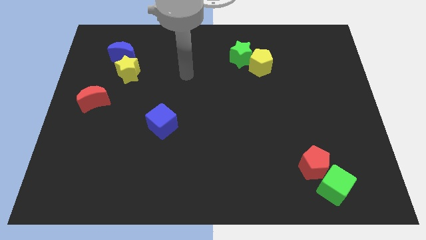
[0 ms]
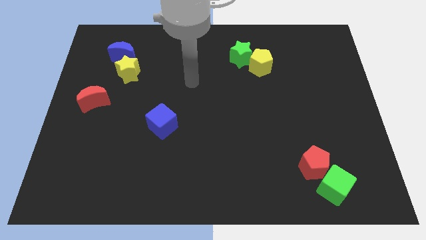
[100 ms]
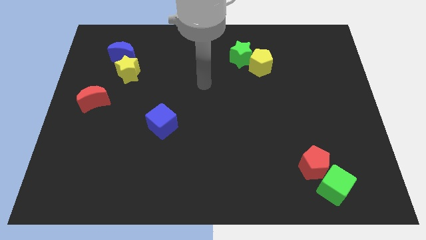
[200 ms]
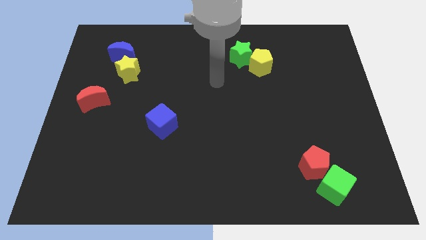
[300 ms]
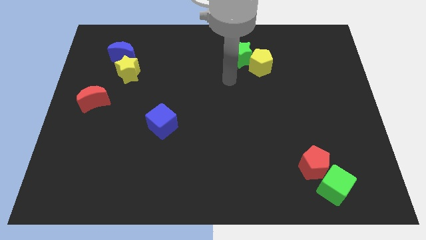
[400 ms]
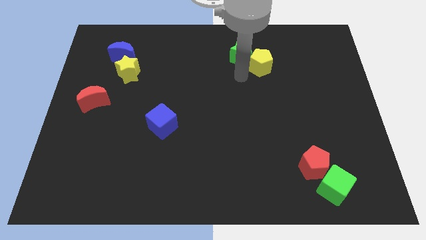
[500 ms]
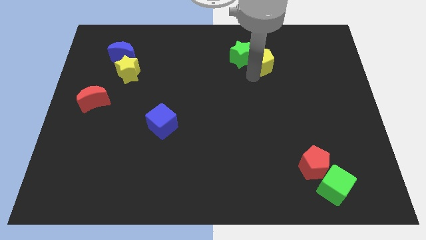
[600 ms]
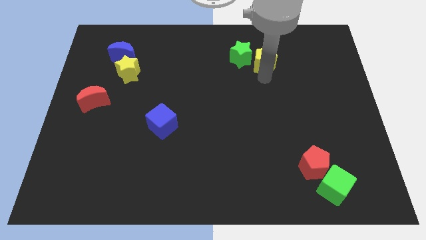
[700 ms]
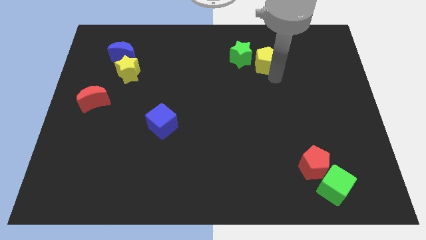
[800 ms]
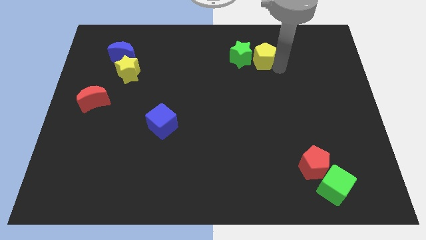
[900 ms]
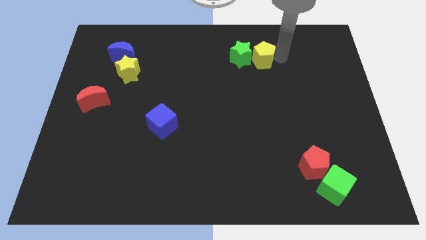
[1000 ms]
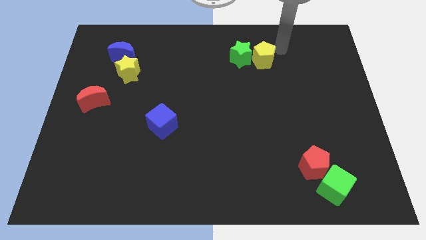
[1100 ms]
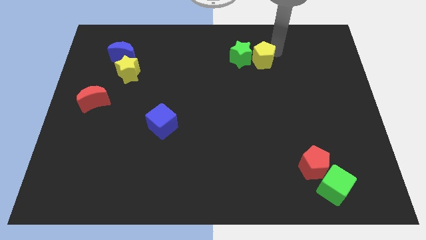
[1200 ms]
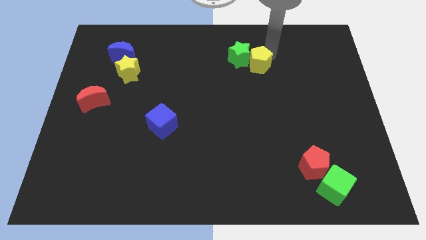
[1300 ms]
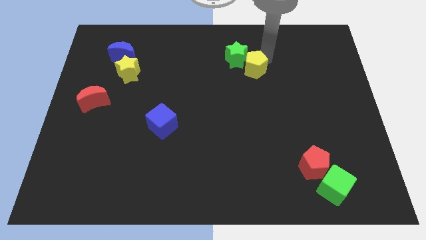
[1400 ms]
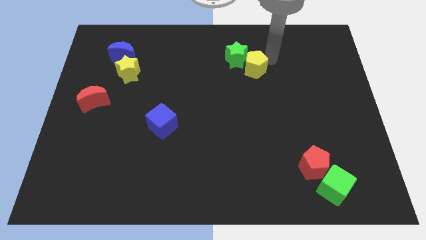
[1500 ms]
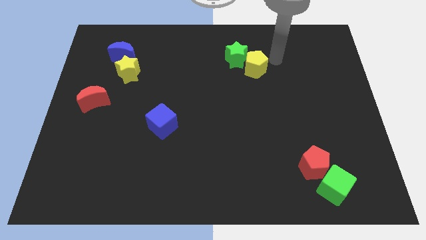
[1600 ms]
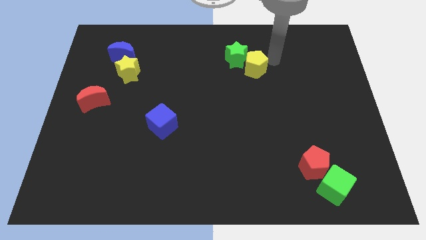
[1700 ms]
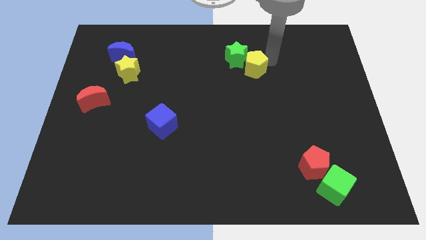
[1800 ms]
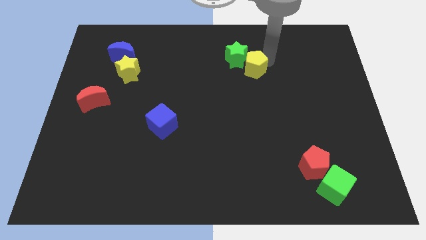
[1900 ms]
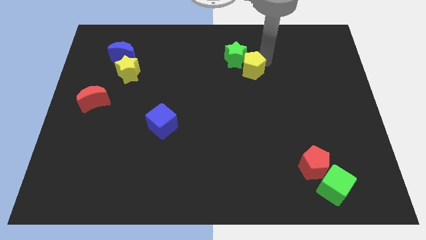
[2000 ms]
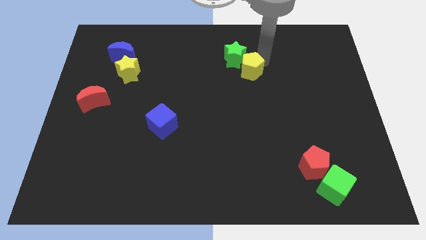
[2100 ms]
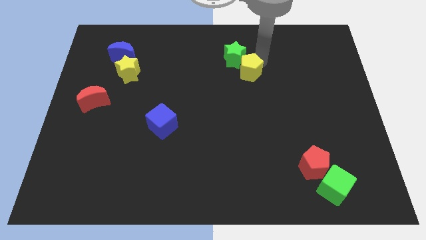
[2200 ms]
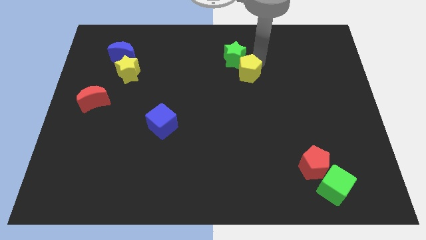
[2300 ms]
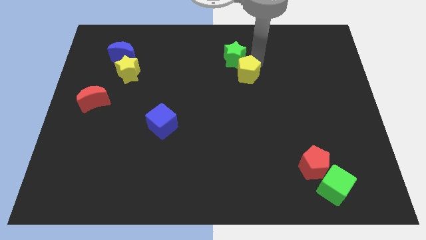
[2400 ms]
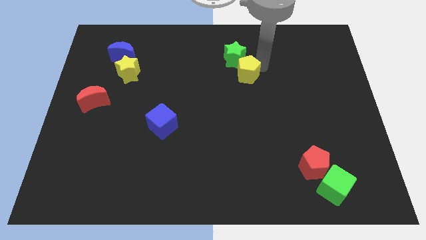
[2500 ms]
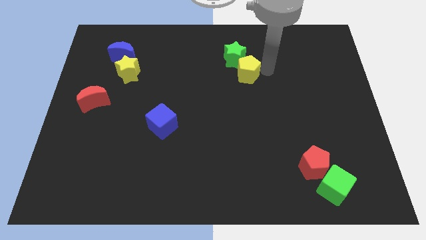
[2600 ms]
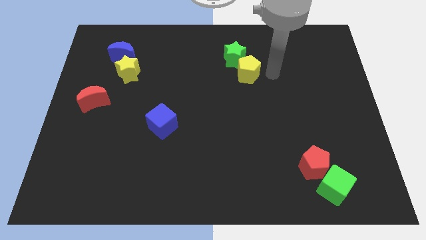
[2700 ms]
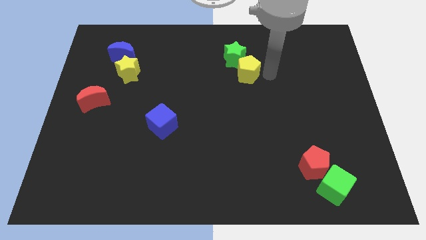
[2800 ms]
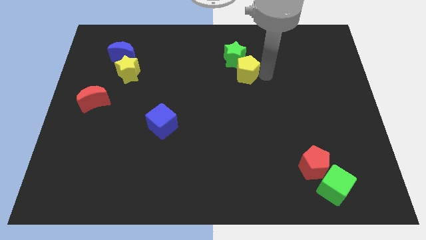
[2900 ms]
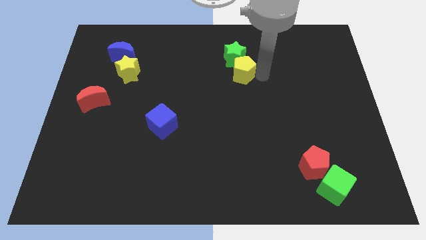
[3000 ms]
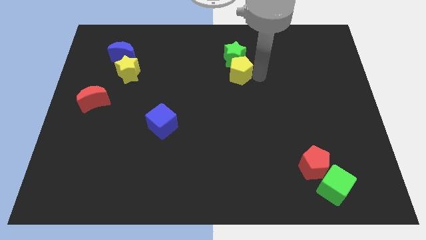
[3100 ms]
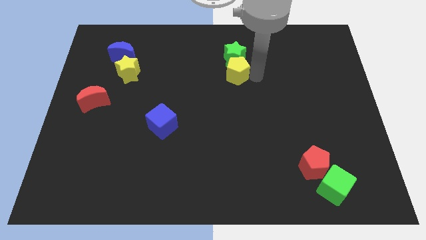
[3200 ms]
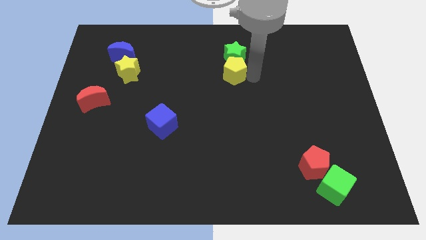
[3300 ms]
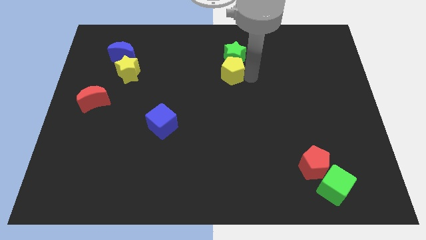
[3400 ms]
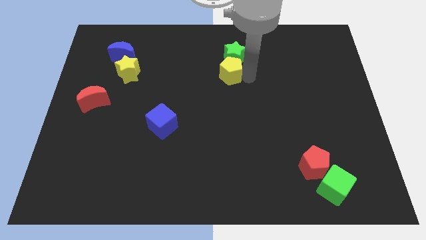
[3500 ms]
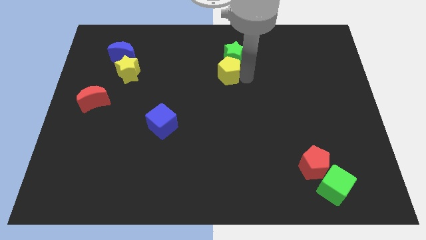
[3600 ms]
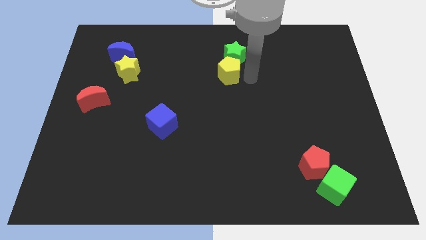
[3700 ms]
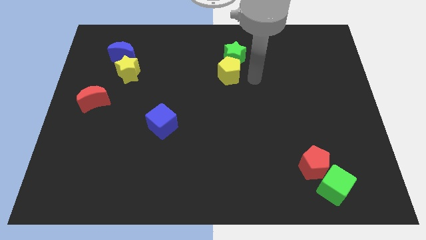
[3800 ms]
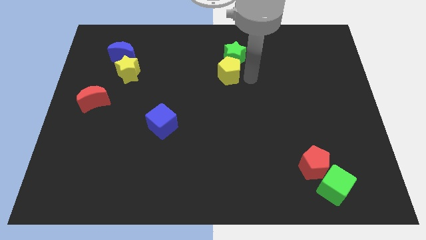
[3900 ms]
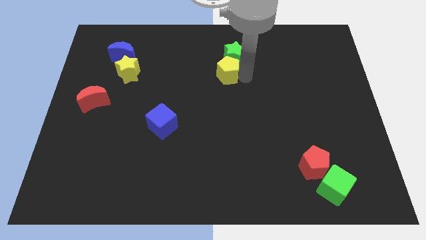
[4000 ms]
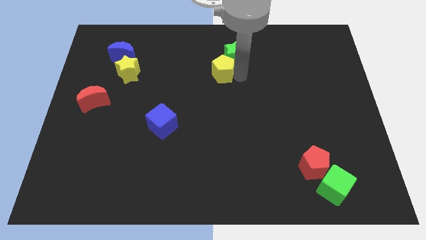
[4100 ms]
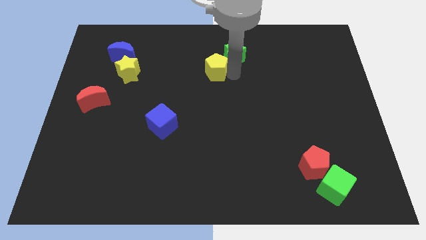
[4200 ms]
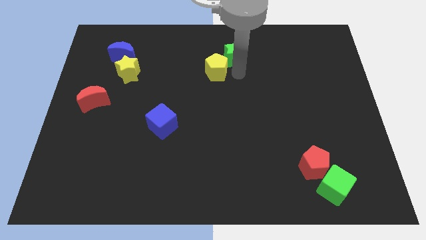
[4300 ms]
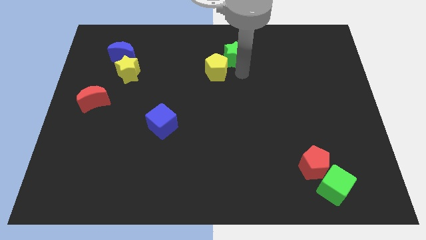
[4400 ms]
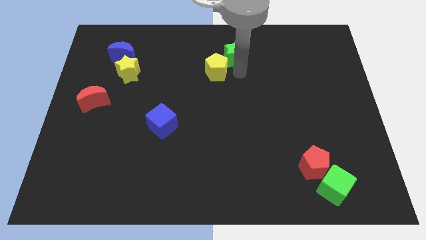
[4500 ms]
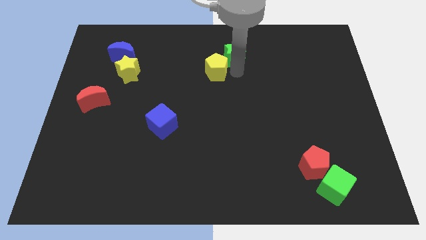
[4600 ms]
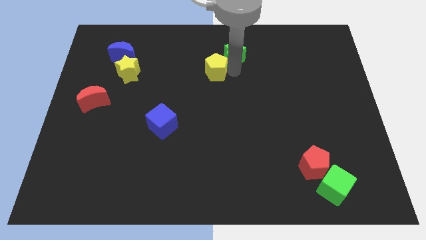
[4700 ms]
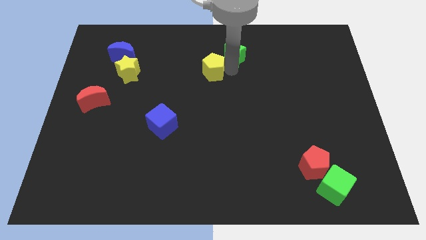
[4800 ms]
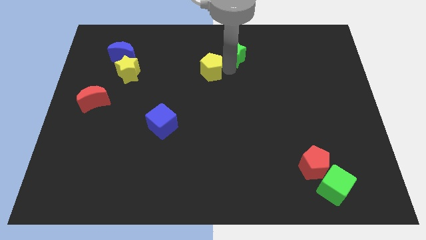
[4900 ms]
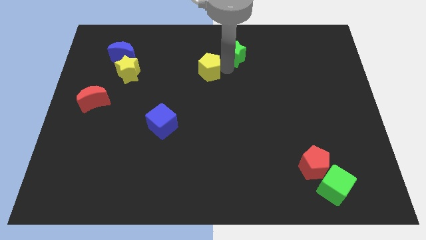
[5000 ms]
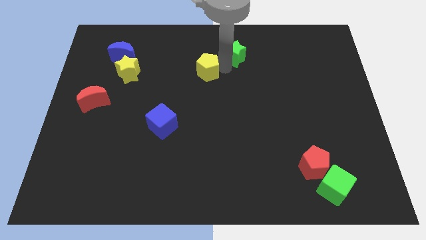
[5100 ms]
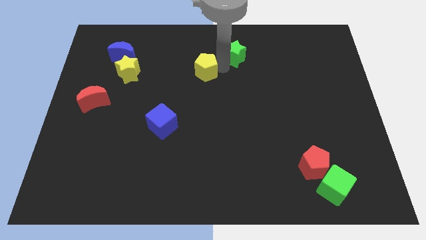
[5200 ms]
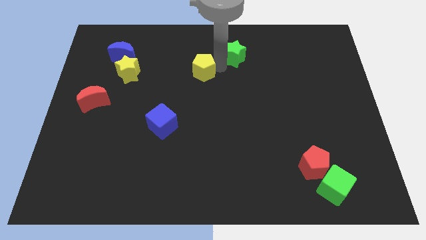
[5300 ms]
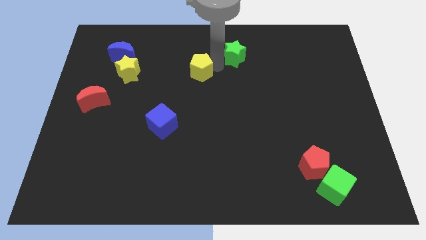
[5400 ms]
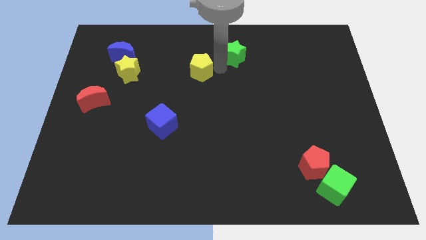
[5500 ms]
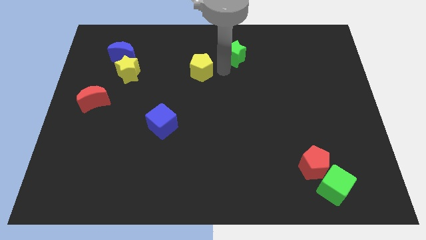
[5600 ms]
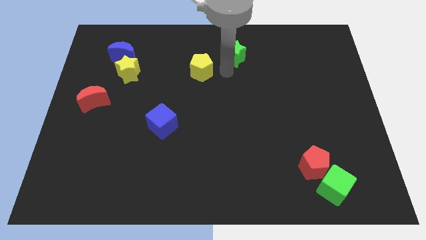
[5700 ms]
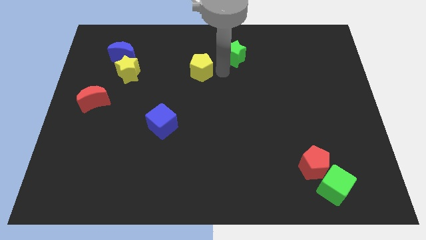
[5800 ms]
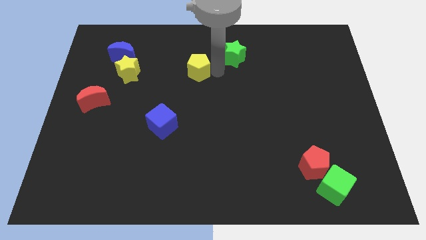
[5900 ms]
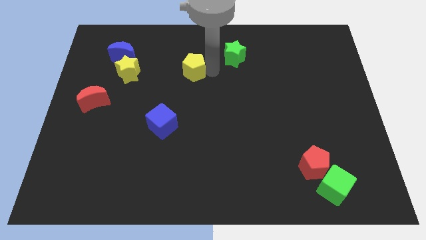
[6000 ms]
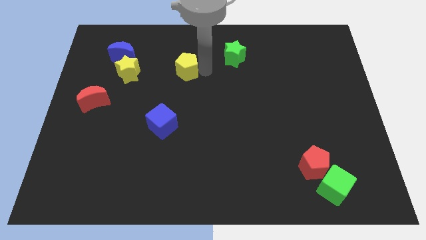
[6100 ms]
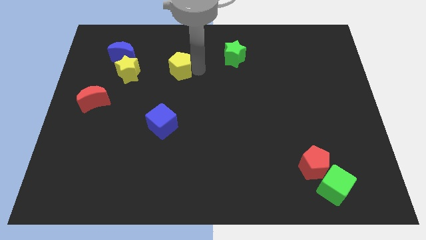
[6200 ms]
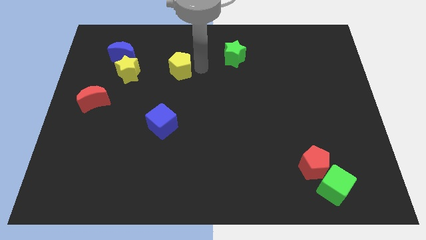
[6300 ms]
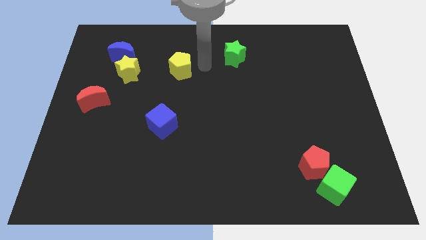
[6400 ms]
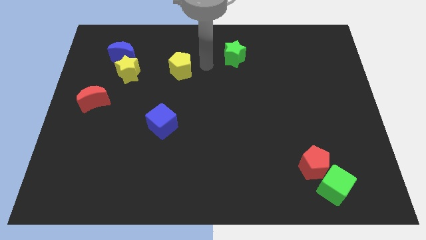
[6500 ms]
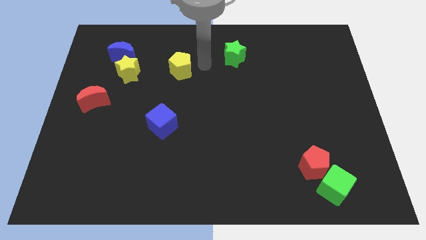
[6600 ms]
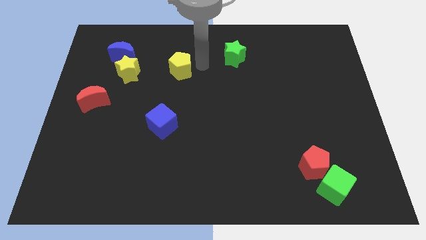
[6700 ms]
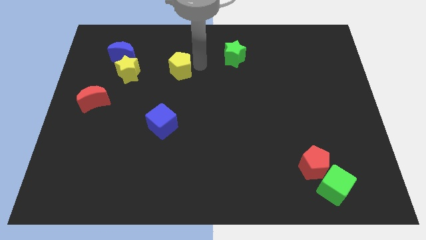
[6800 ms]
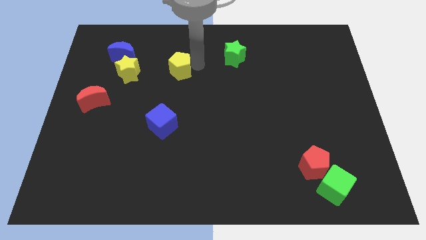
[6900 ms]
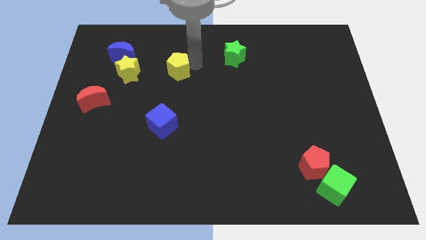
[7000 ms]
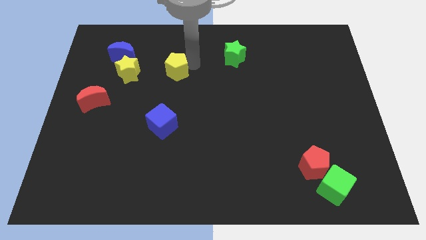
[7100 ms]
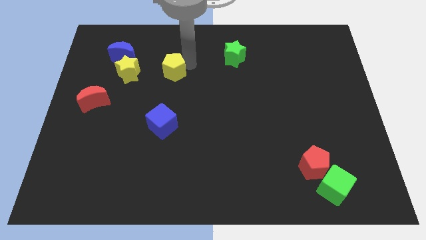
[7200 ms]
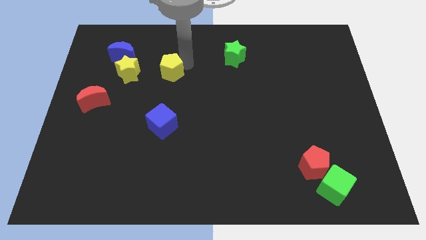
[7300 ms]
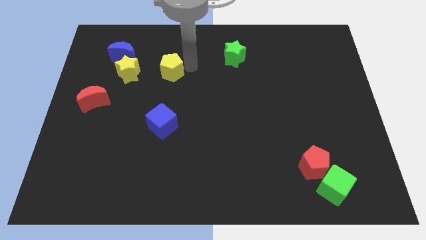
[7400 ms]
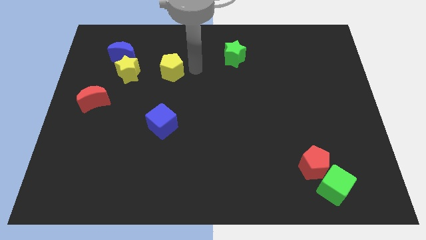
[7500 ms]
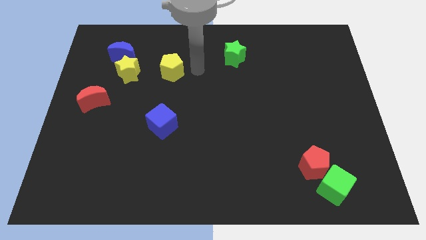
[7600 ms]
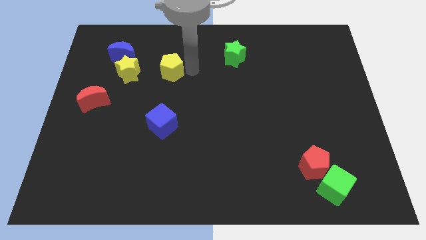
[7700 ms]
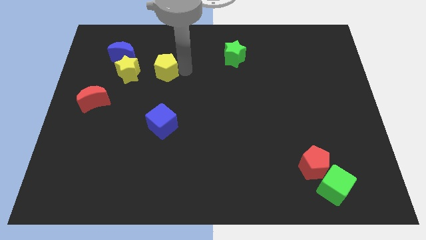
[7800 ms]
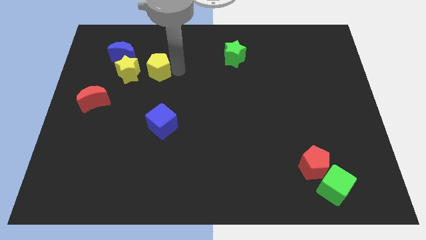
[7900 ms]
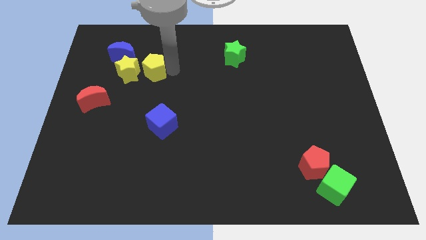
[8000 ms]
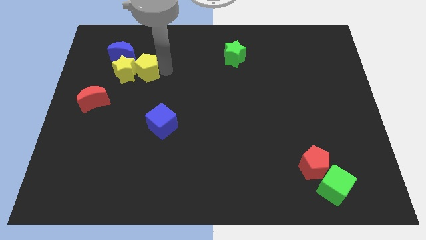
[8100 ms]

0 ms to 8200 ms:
slide the yellow pentagon next to the yellow star
